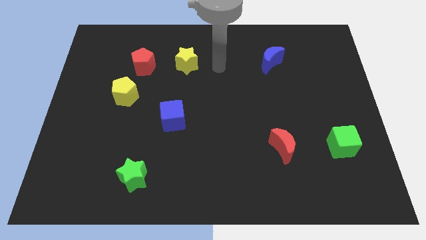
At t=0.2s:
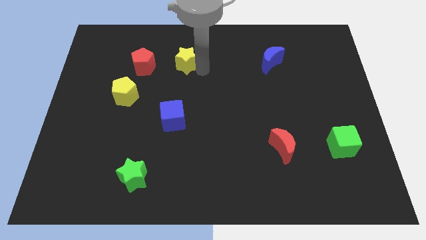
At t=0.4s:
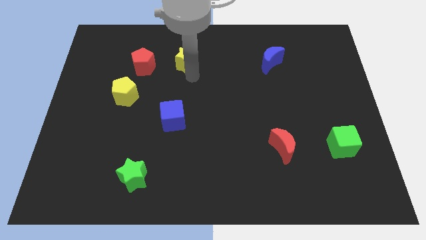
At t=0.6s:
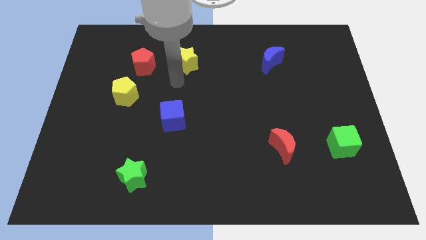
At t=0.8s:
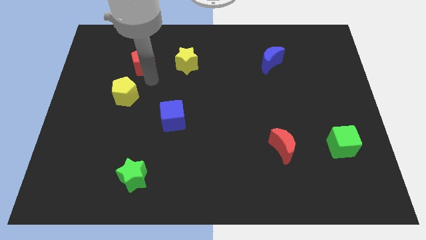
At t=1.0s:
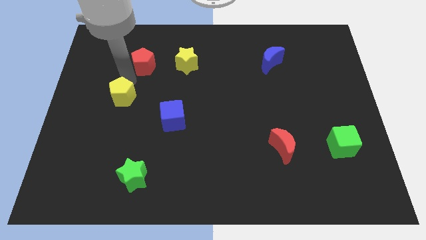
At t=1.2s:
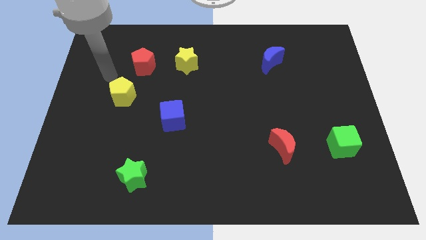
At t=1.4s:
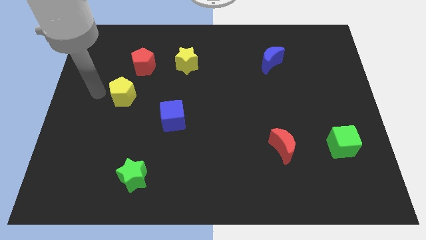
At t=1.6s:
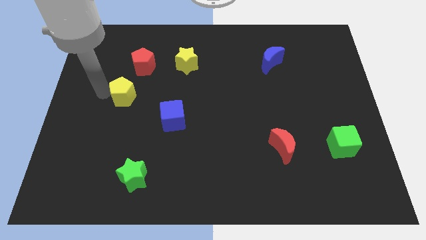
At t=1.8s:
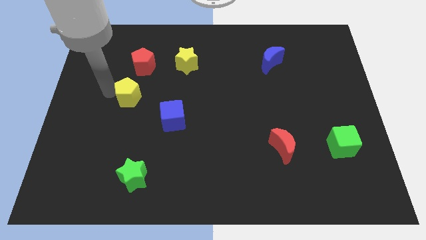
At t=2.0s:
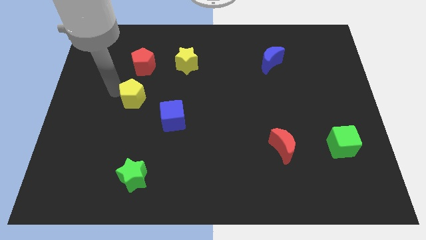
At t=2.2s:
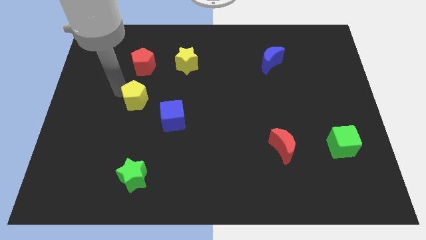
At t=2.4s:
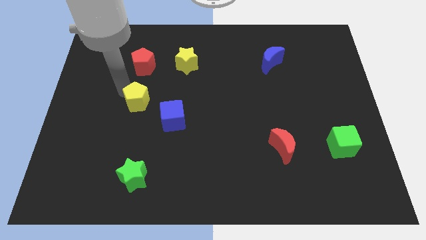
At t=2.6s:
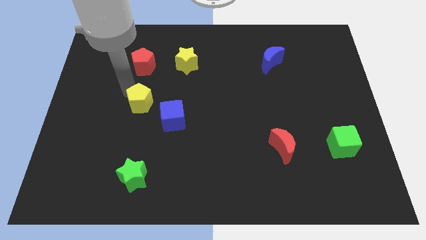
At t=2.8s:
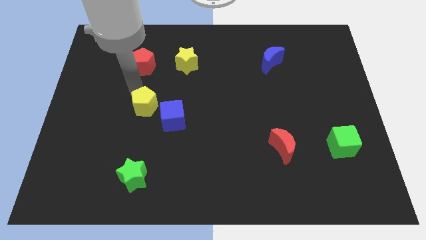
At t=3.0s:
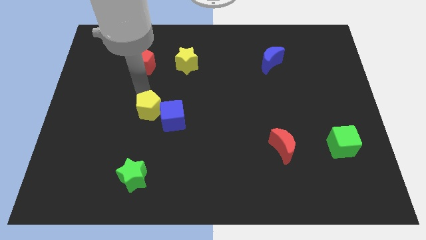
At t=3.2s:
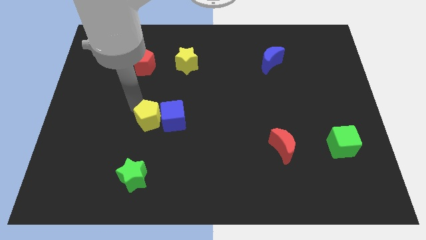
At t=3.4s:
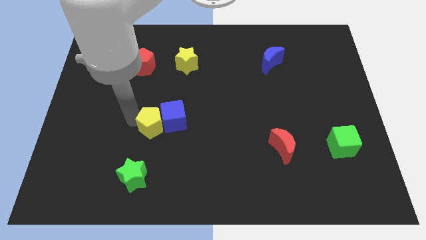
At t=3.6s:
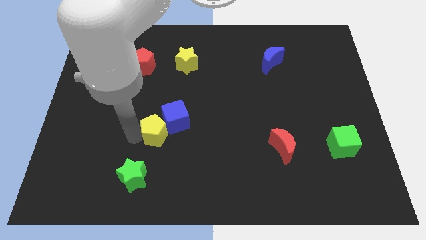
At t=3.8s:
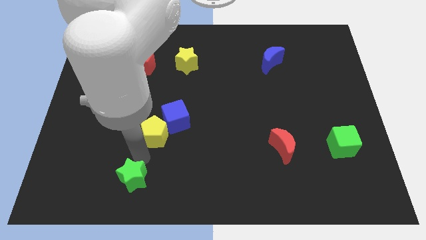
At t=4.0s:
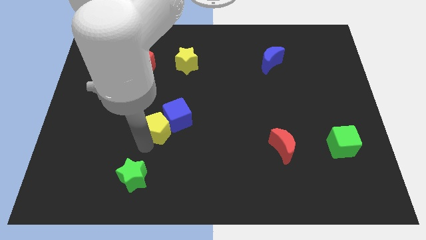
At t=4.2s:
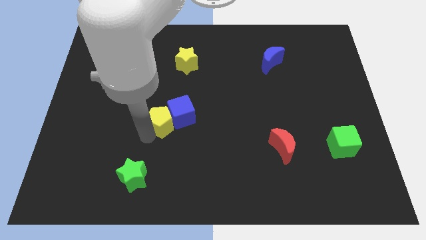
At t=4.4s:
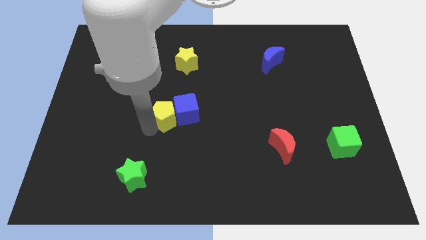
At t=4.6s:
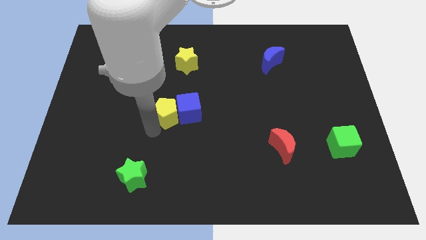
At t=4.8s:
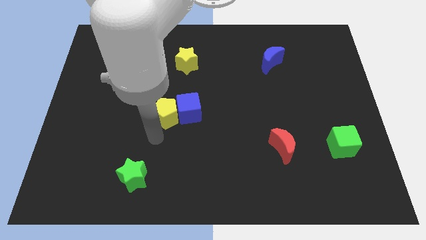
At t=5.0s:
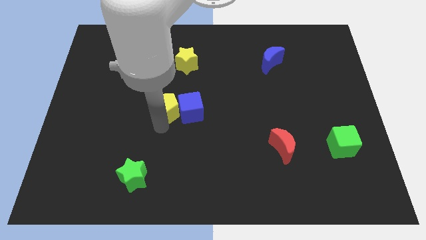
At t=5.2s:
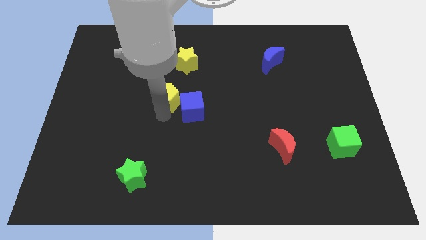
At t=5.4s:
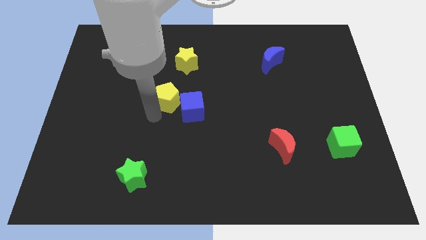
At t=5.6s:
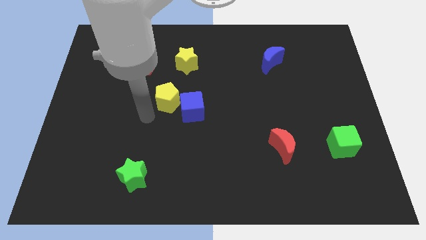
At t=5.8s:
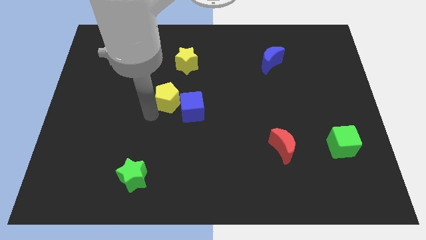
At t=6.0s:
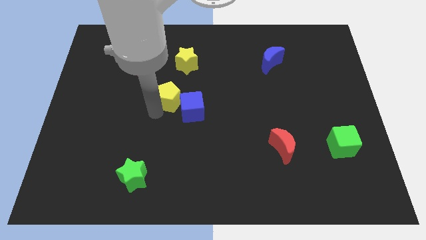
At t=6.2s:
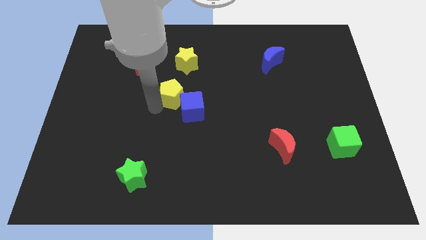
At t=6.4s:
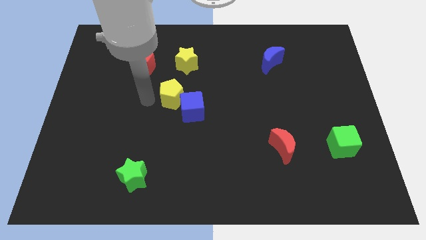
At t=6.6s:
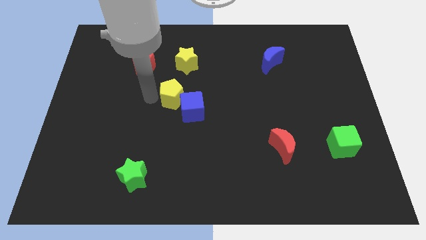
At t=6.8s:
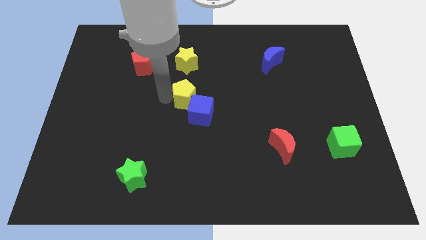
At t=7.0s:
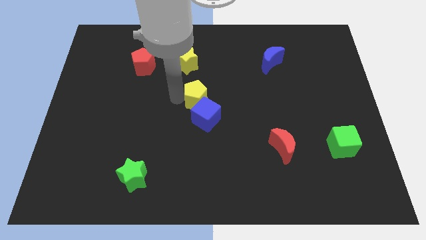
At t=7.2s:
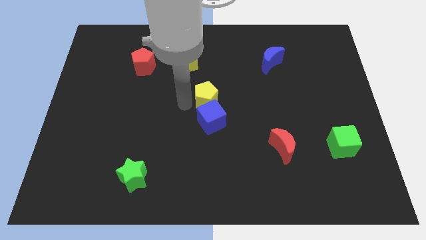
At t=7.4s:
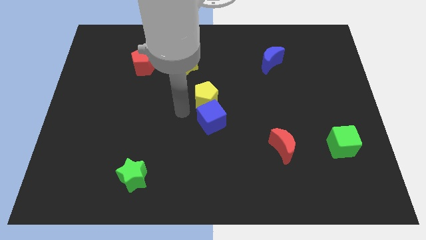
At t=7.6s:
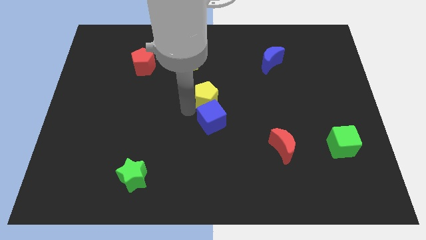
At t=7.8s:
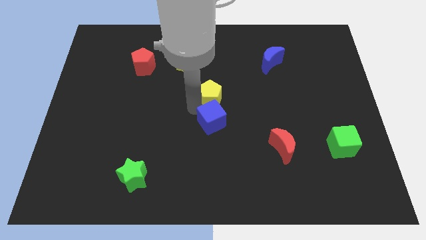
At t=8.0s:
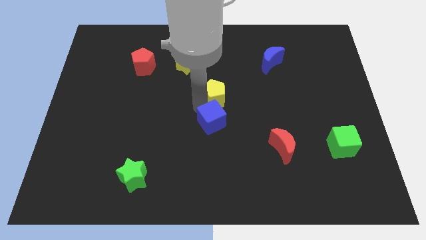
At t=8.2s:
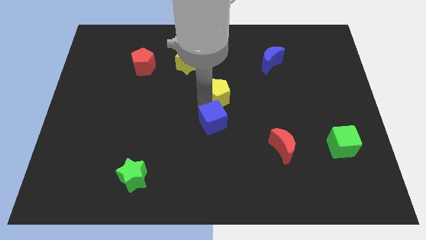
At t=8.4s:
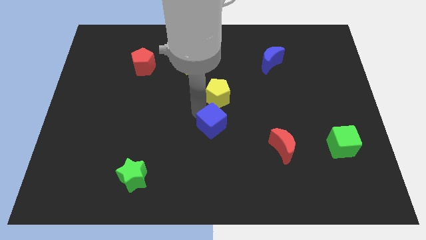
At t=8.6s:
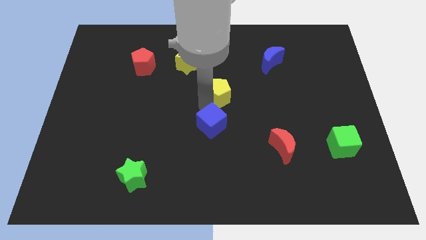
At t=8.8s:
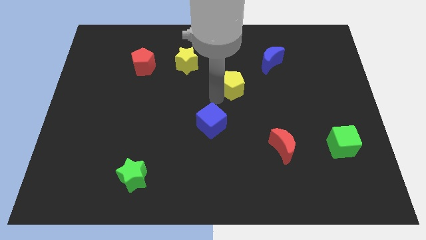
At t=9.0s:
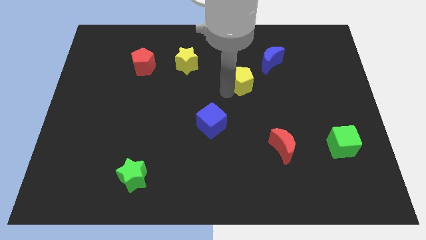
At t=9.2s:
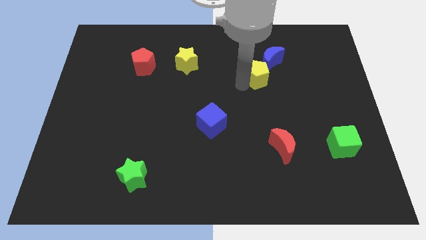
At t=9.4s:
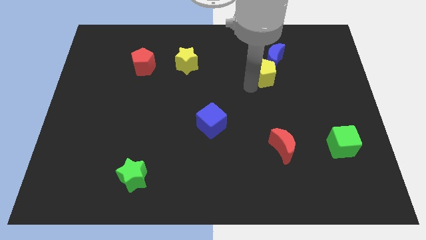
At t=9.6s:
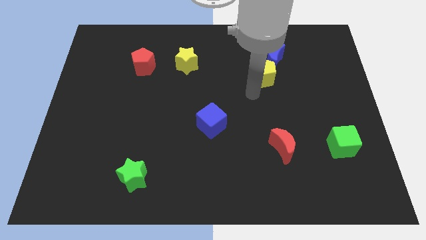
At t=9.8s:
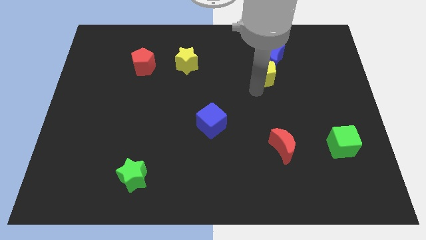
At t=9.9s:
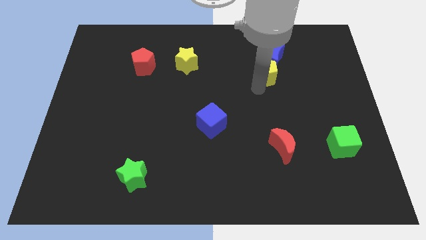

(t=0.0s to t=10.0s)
move the yellow pentagon to the blue moon

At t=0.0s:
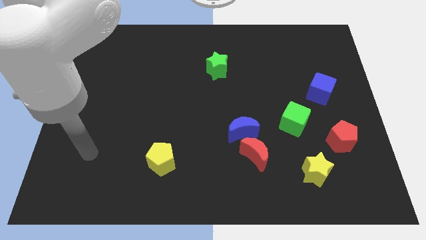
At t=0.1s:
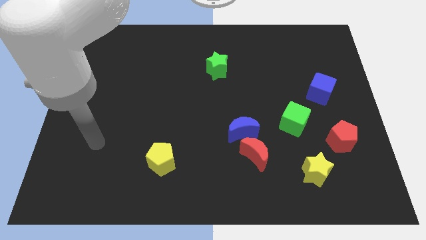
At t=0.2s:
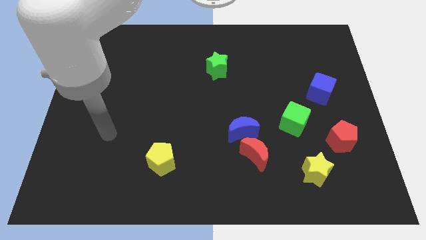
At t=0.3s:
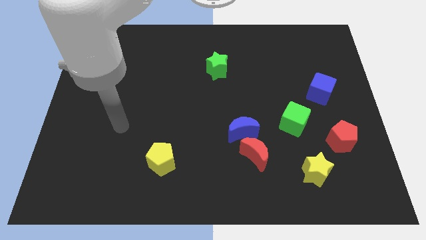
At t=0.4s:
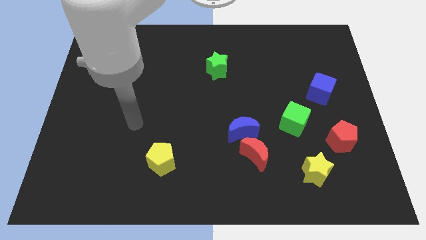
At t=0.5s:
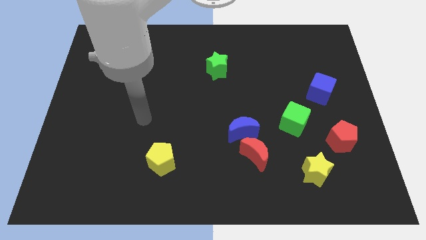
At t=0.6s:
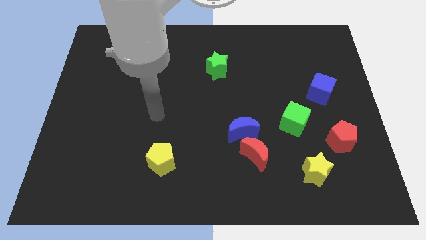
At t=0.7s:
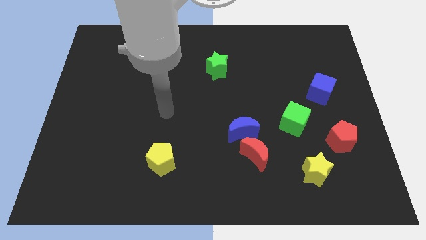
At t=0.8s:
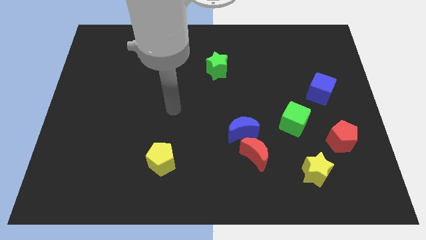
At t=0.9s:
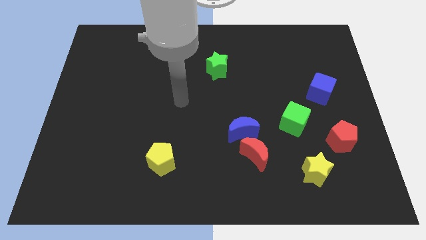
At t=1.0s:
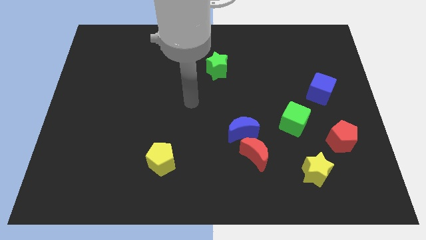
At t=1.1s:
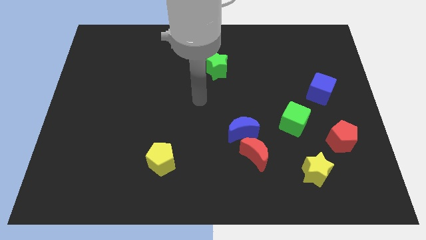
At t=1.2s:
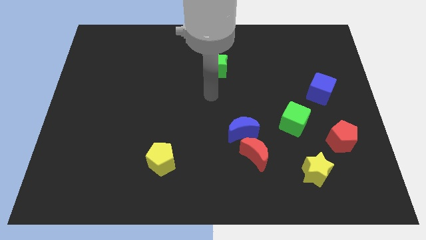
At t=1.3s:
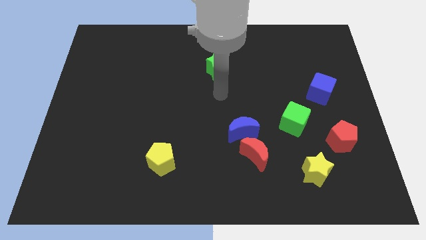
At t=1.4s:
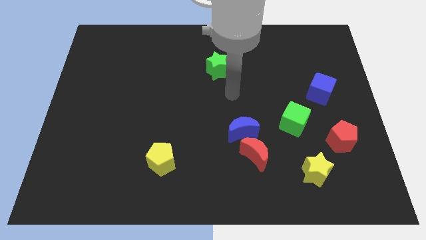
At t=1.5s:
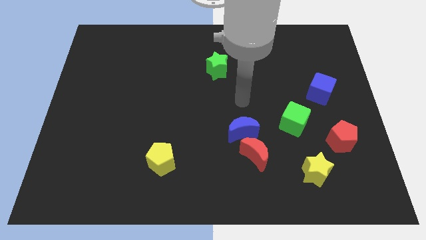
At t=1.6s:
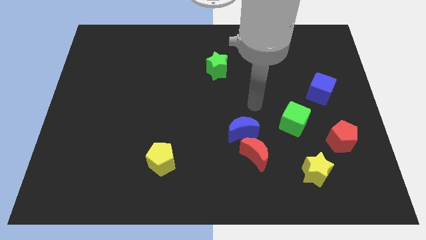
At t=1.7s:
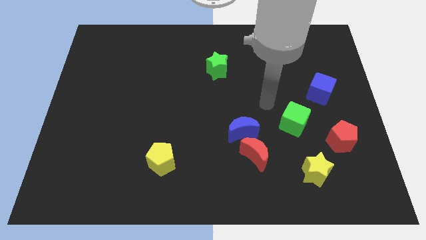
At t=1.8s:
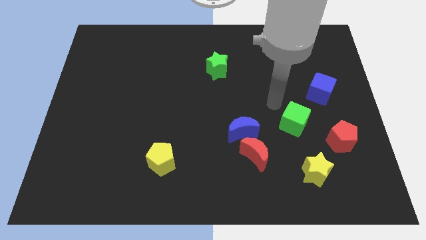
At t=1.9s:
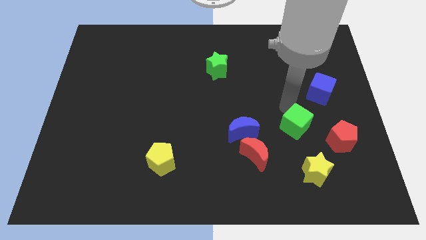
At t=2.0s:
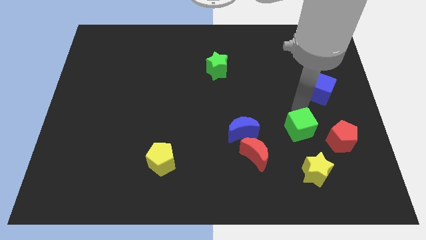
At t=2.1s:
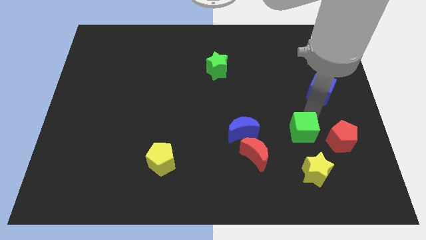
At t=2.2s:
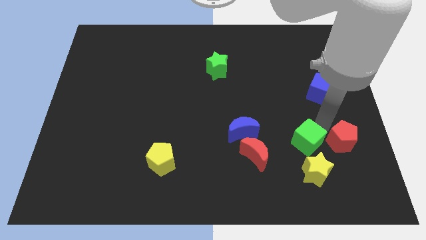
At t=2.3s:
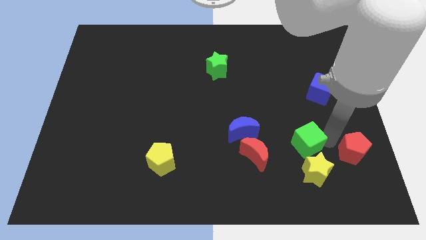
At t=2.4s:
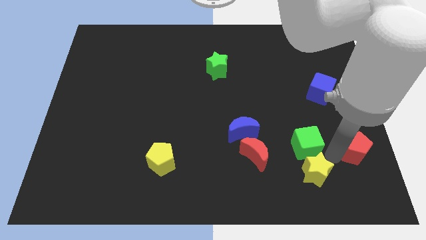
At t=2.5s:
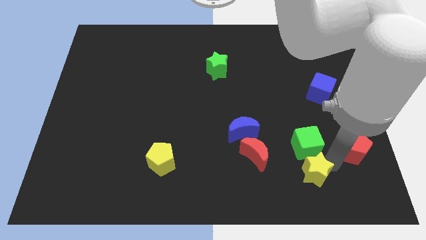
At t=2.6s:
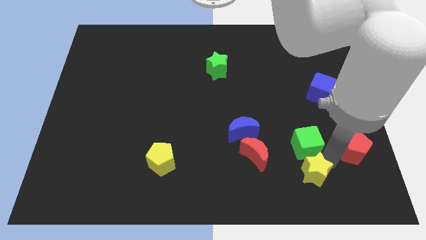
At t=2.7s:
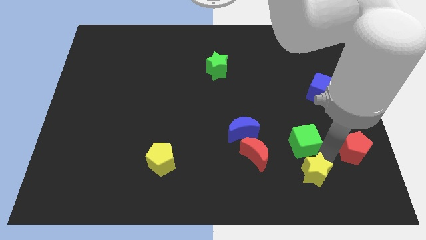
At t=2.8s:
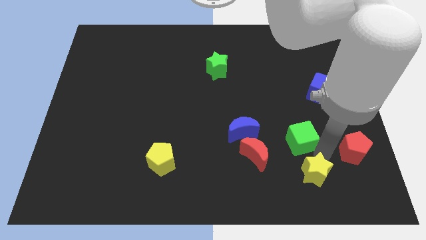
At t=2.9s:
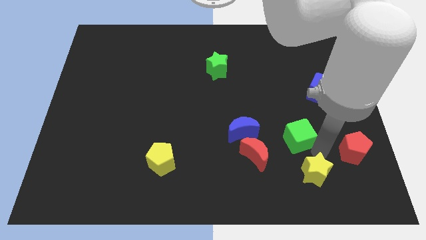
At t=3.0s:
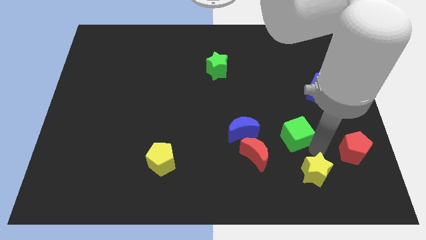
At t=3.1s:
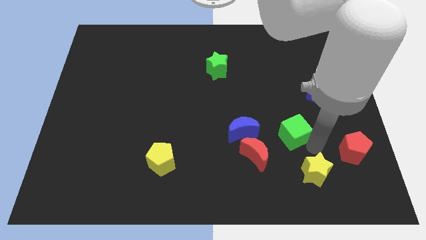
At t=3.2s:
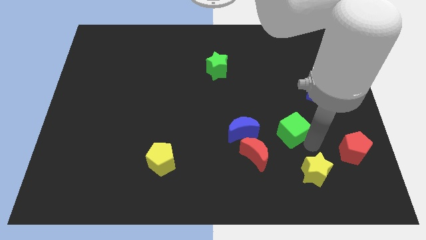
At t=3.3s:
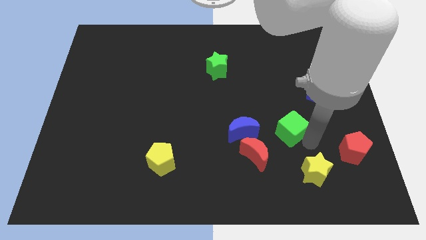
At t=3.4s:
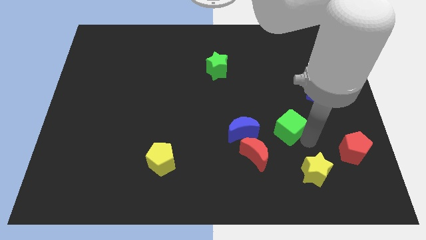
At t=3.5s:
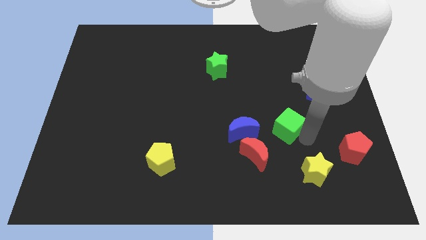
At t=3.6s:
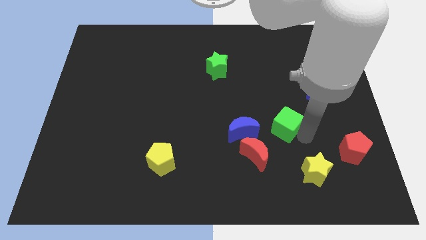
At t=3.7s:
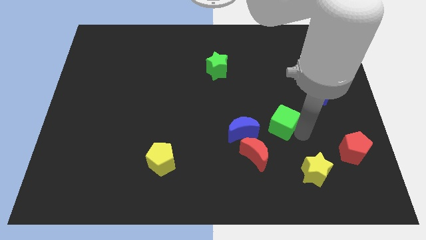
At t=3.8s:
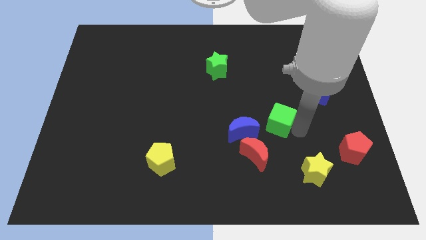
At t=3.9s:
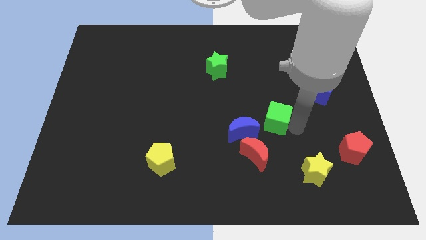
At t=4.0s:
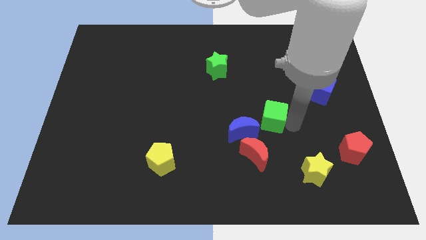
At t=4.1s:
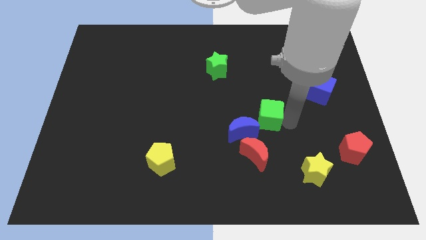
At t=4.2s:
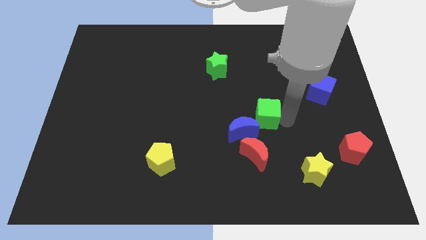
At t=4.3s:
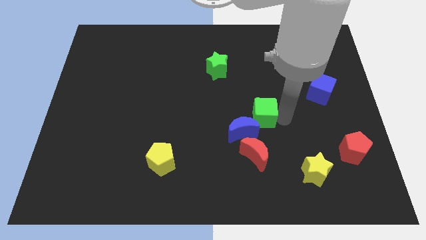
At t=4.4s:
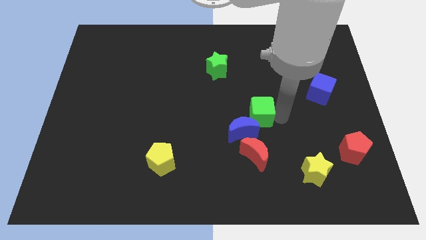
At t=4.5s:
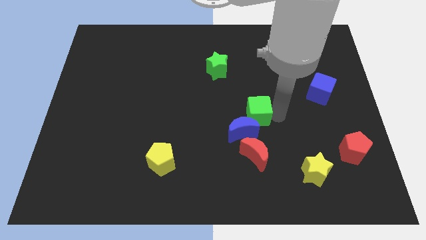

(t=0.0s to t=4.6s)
slide the green cube next to the blue moon
